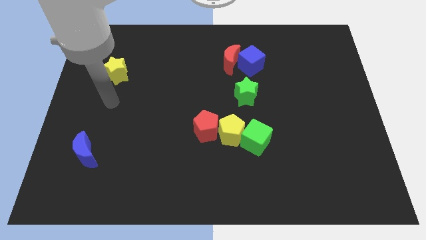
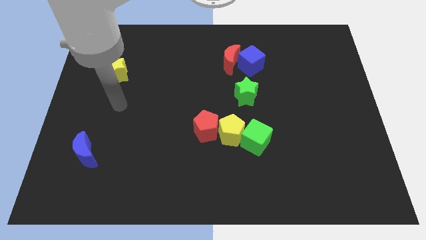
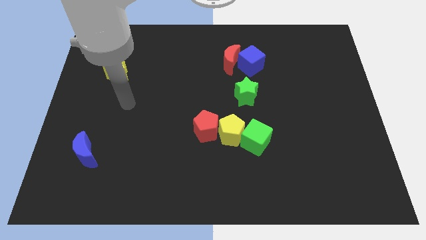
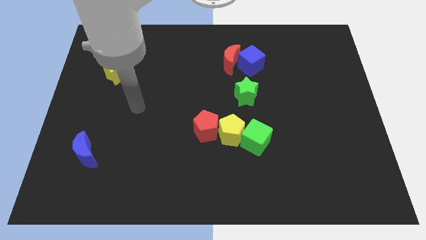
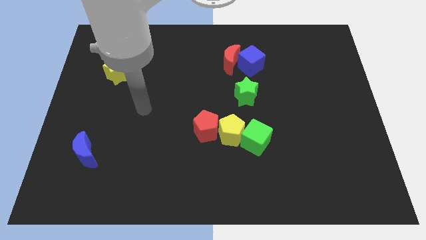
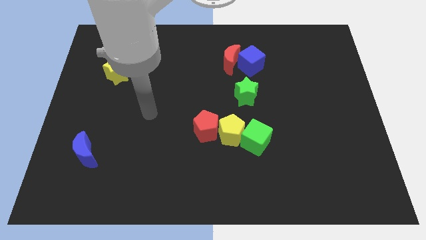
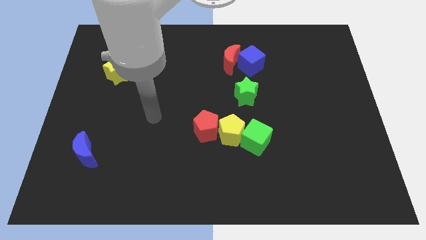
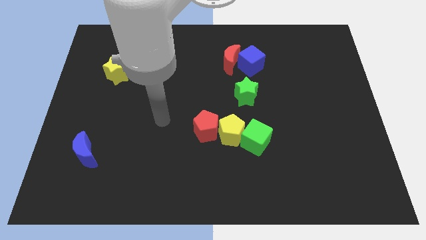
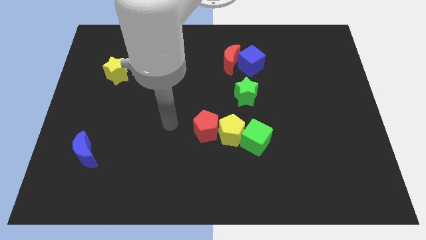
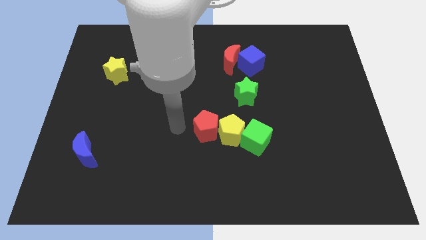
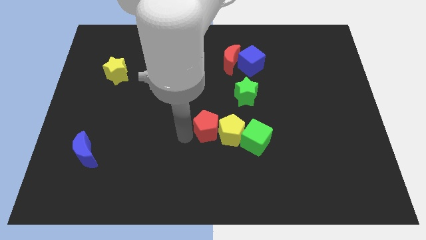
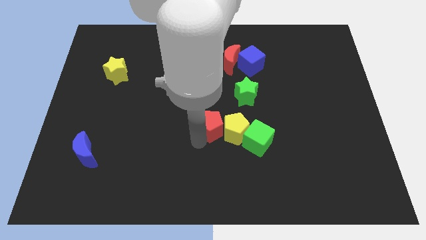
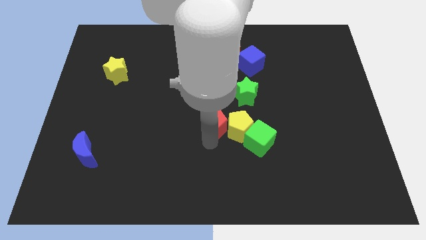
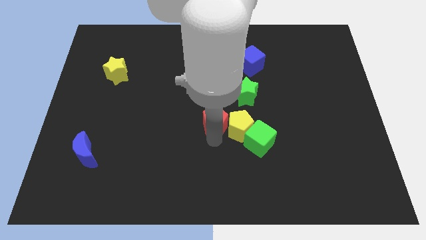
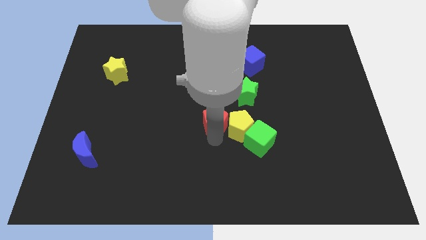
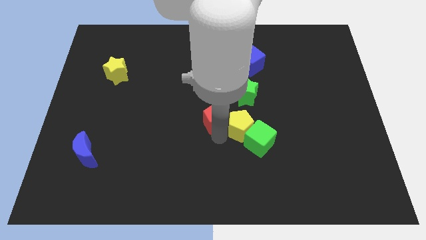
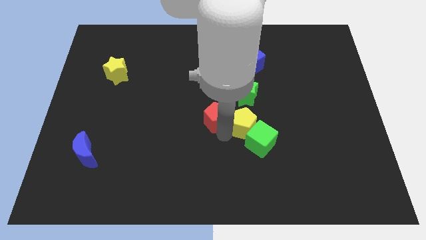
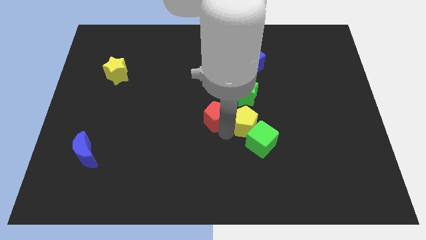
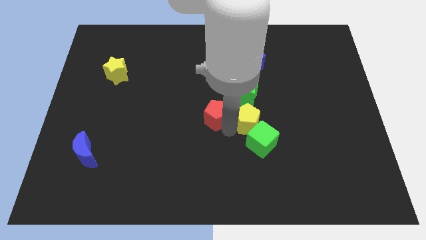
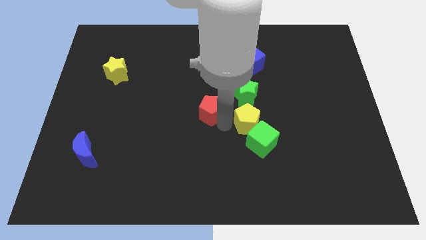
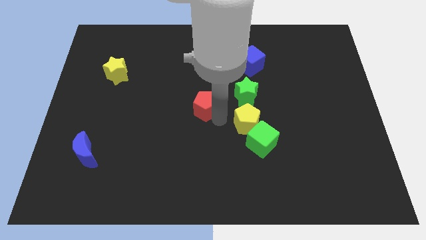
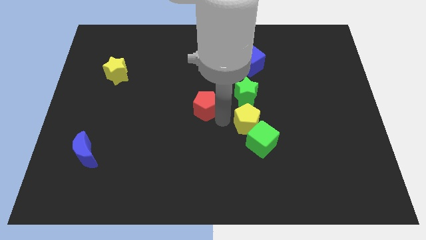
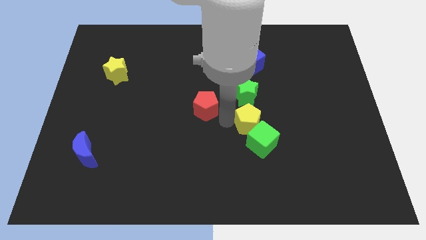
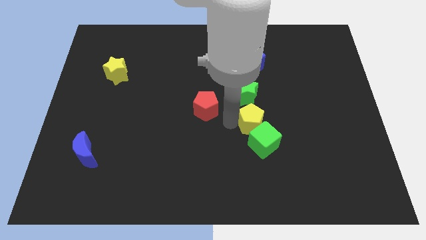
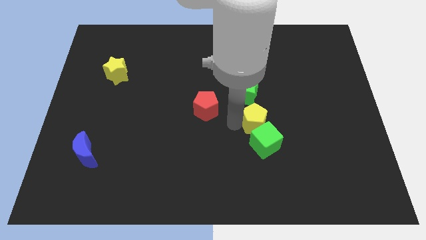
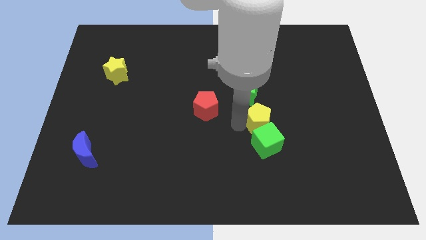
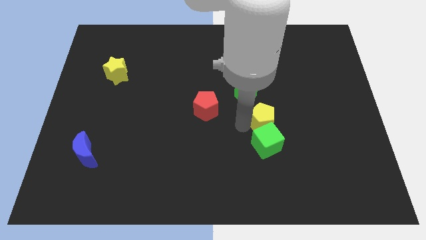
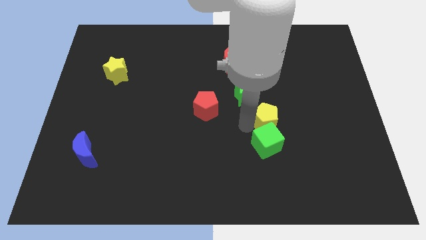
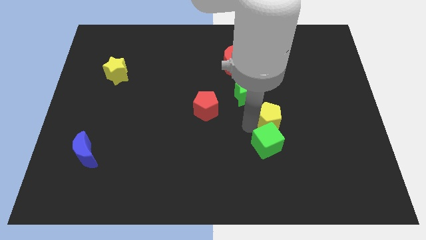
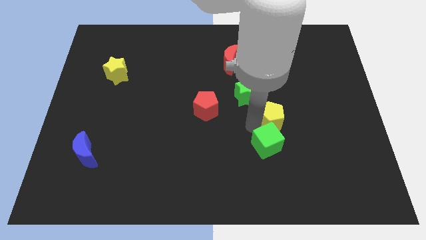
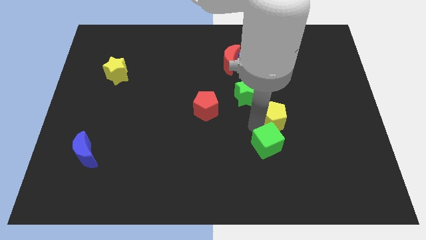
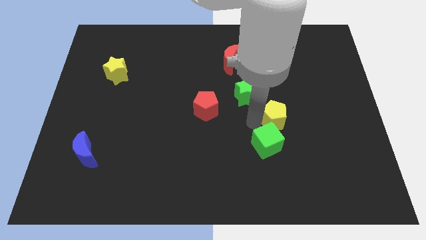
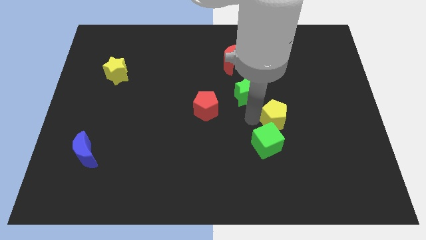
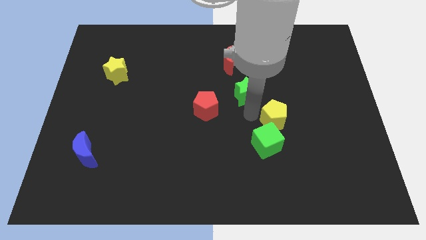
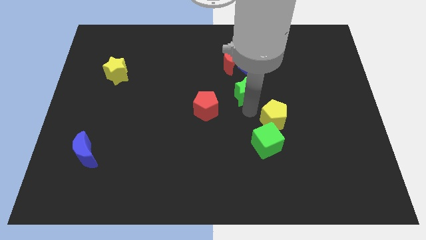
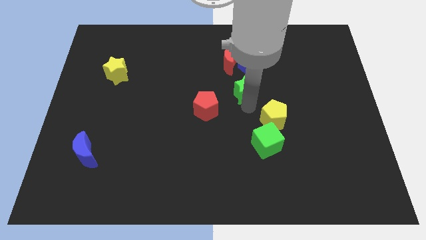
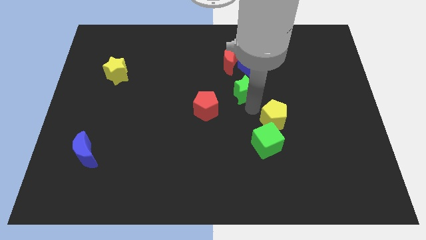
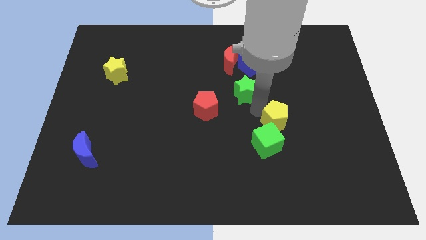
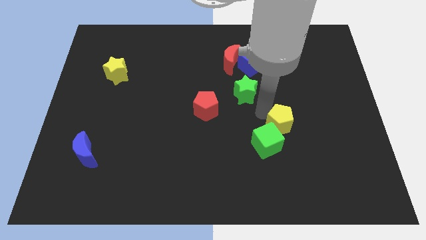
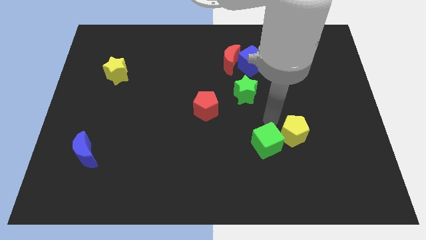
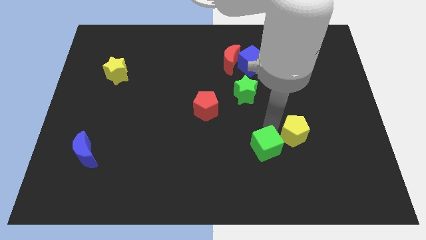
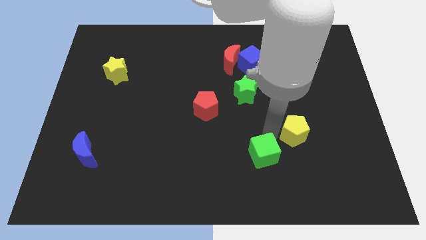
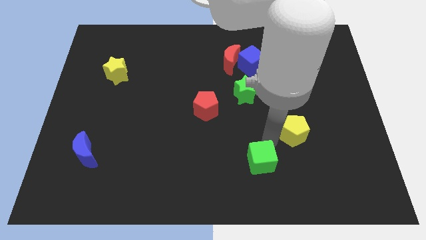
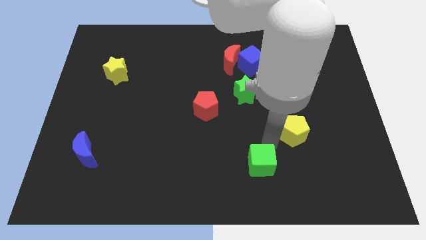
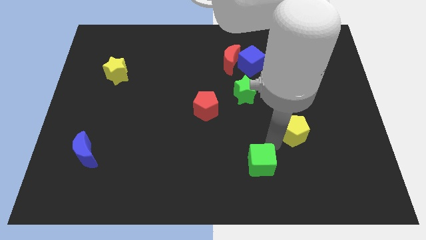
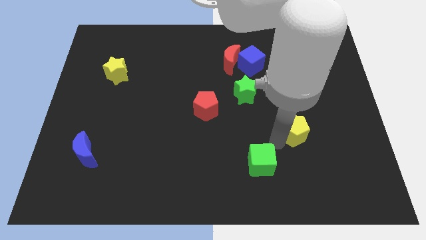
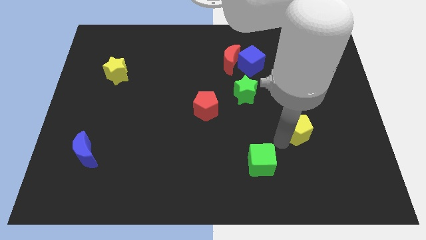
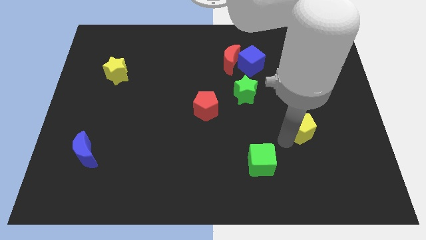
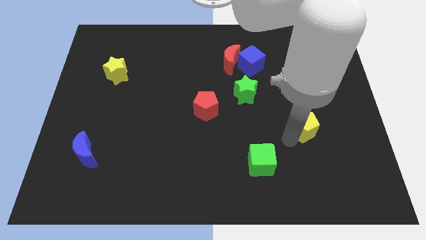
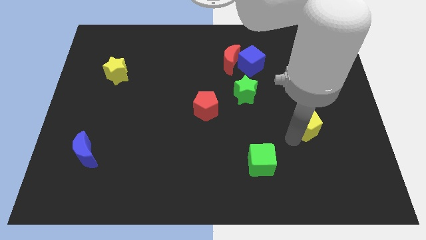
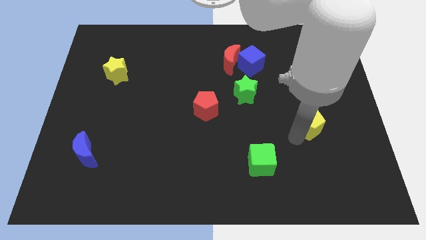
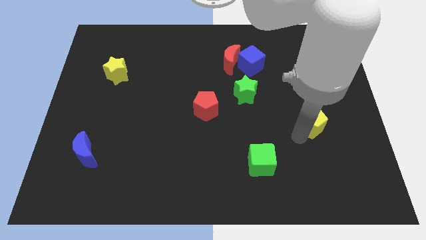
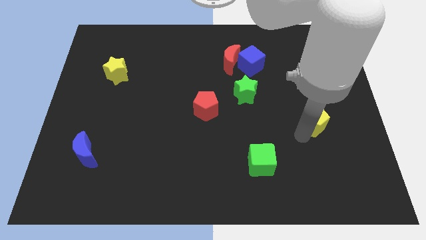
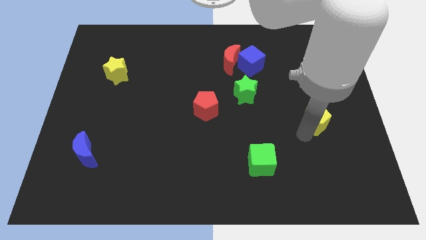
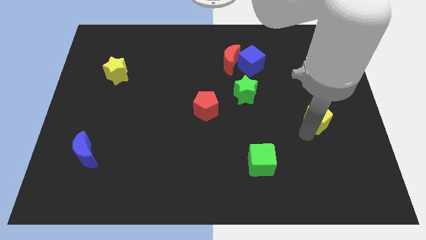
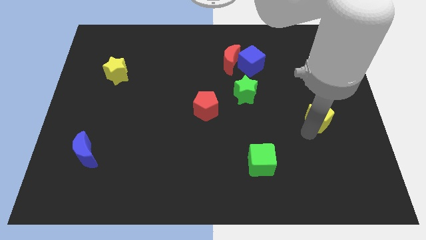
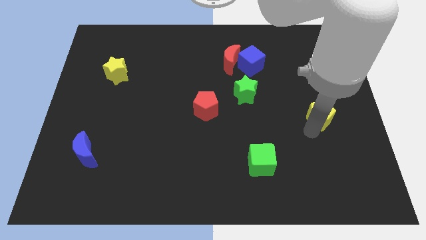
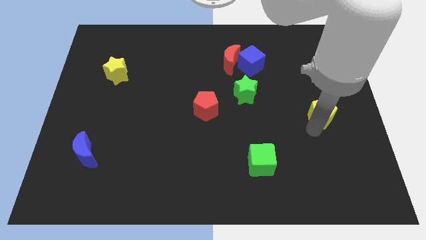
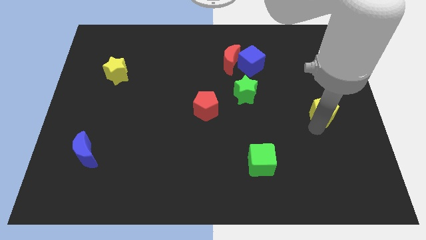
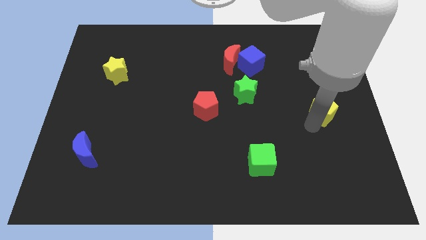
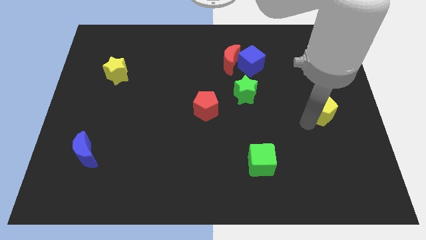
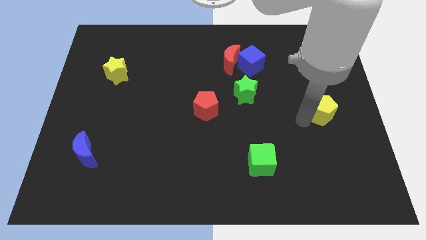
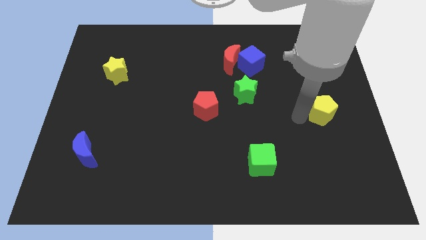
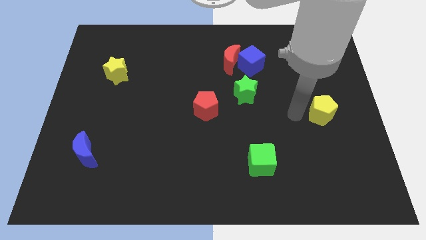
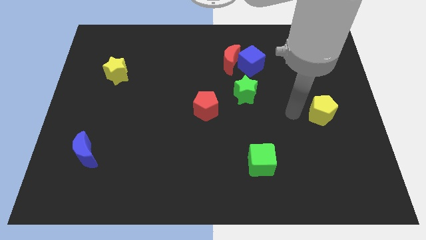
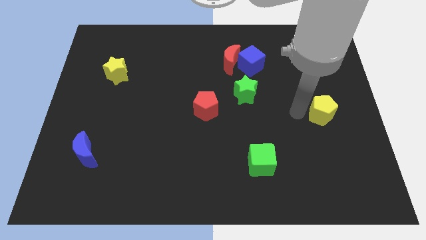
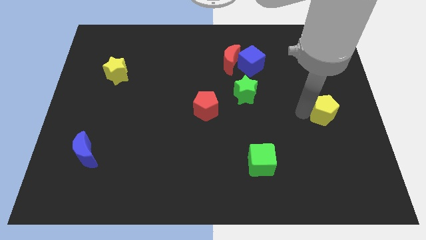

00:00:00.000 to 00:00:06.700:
move the yellow pentagon to the center right
